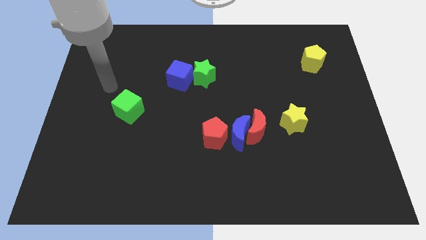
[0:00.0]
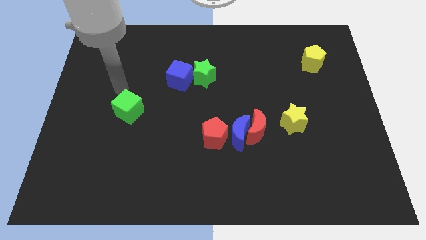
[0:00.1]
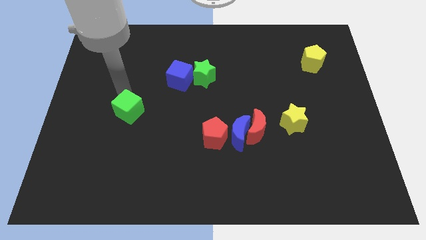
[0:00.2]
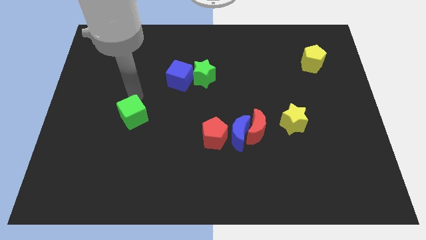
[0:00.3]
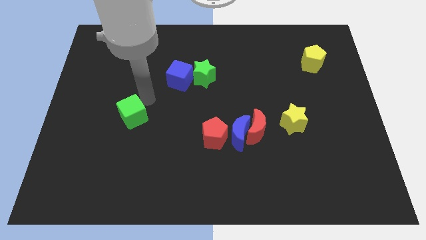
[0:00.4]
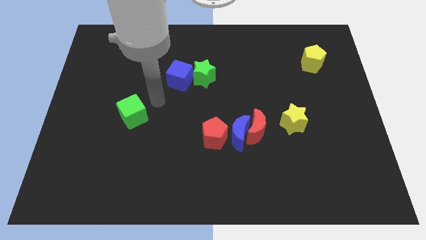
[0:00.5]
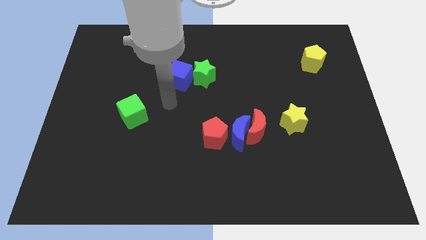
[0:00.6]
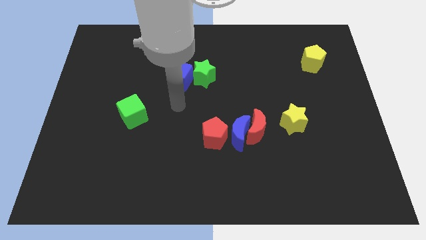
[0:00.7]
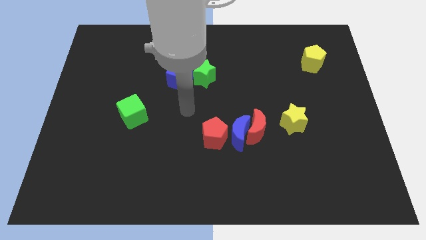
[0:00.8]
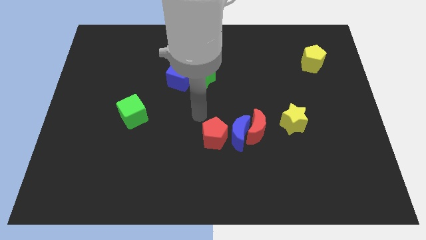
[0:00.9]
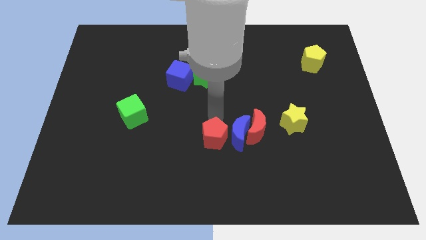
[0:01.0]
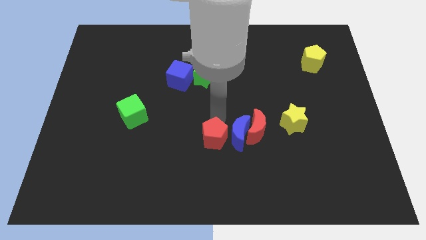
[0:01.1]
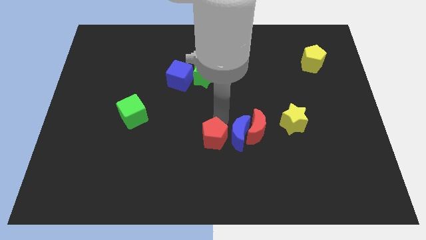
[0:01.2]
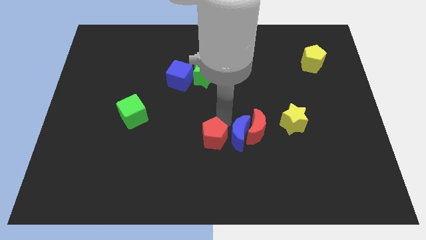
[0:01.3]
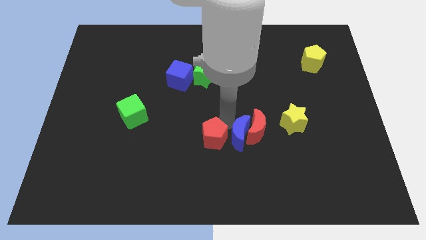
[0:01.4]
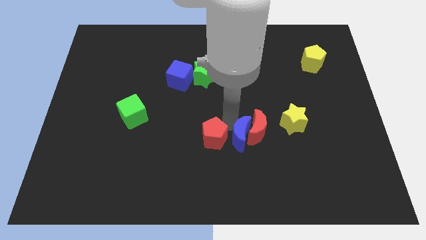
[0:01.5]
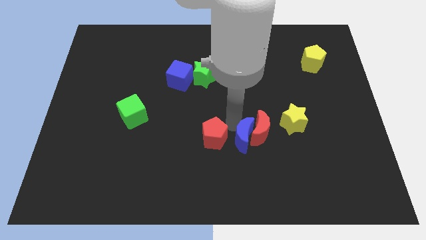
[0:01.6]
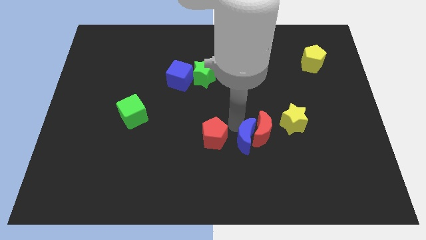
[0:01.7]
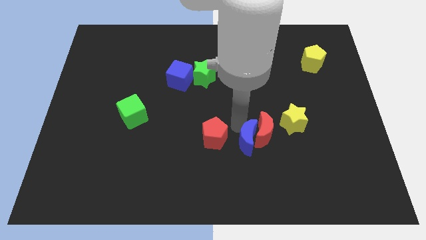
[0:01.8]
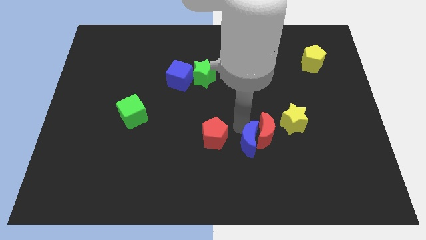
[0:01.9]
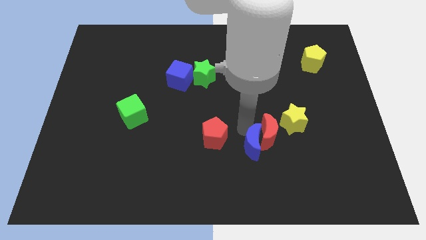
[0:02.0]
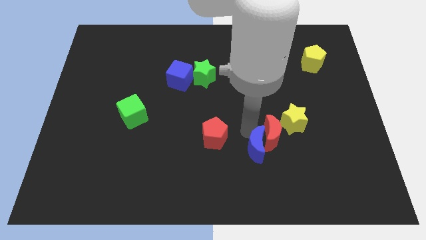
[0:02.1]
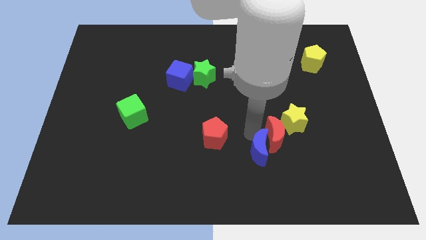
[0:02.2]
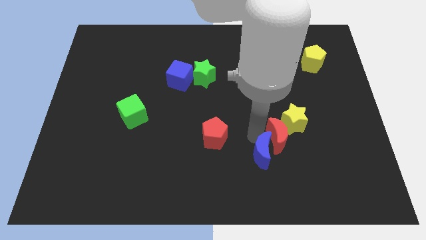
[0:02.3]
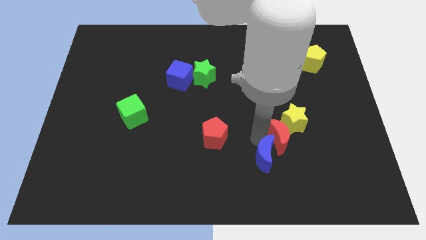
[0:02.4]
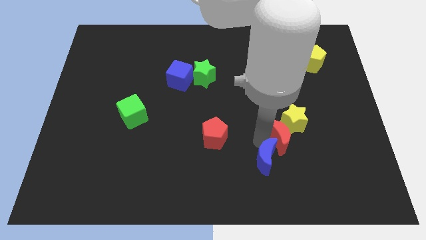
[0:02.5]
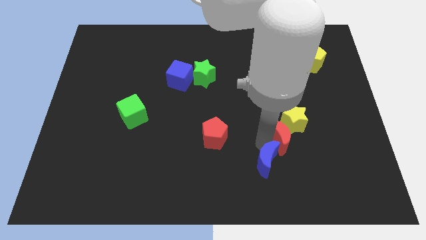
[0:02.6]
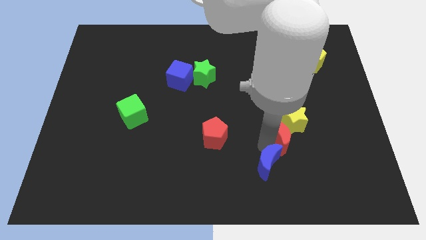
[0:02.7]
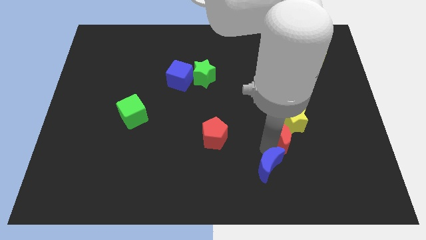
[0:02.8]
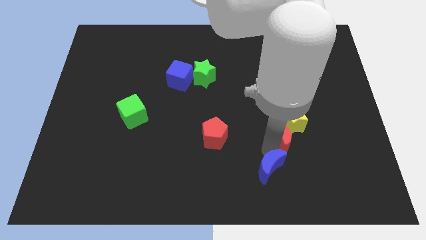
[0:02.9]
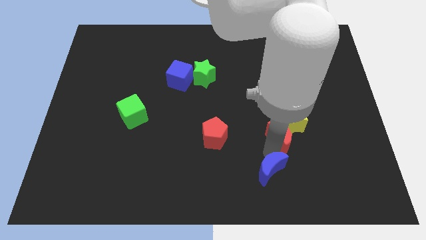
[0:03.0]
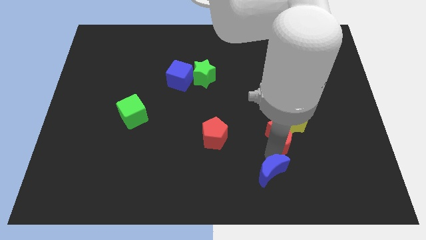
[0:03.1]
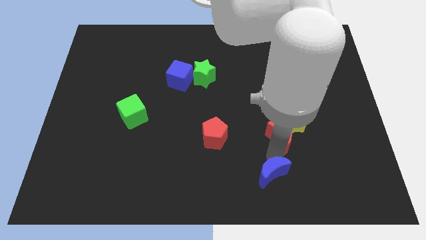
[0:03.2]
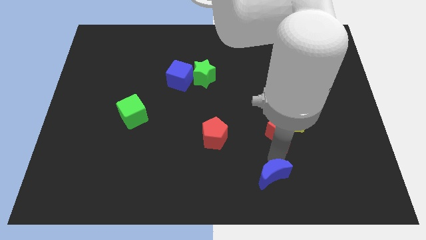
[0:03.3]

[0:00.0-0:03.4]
separate the blue moon from the red moon and red pentagon

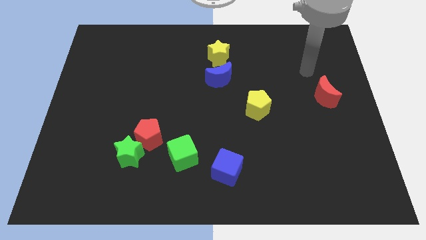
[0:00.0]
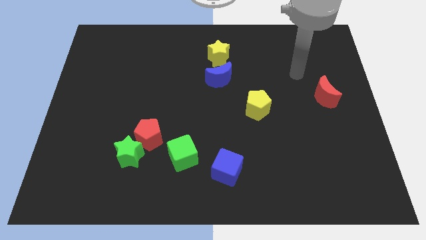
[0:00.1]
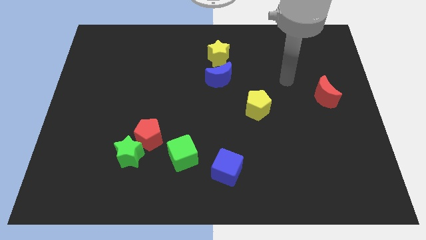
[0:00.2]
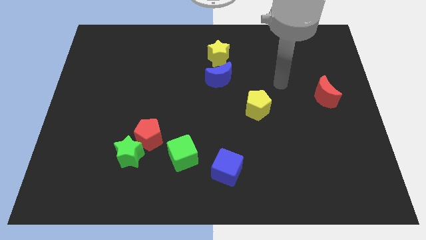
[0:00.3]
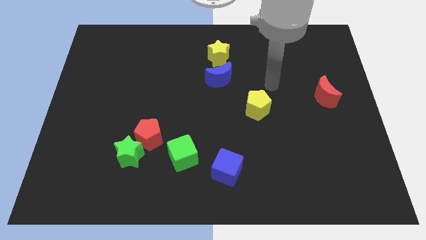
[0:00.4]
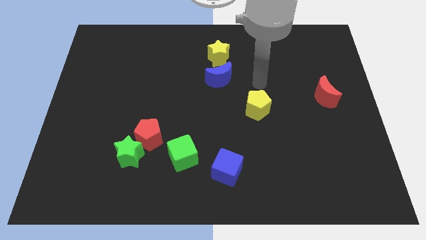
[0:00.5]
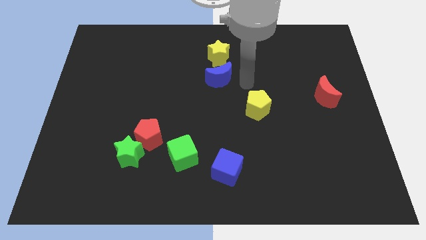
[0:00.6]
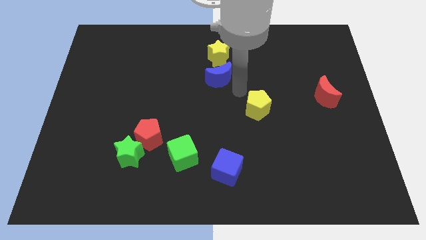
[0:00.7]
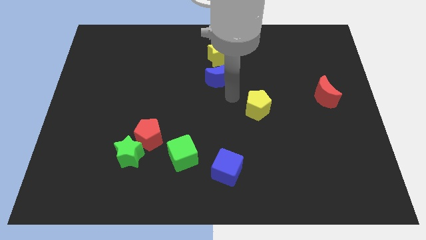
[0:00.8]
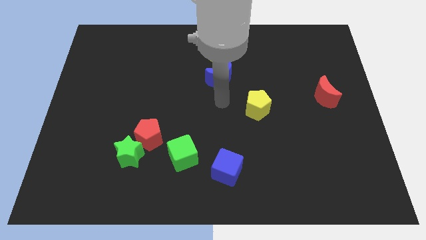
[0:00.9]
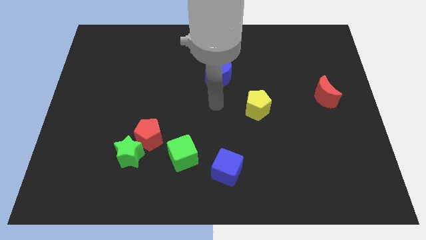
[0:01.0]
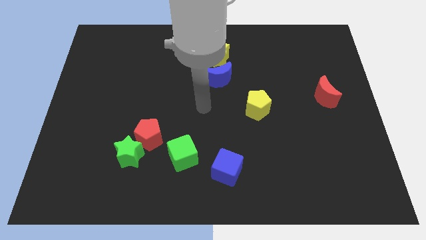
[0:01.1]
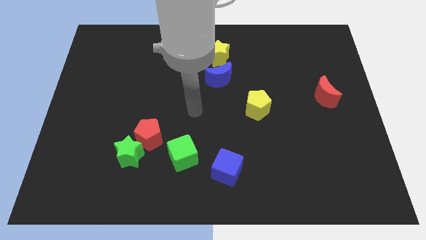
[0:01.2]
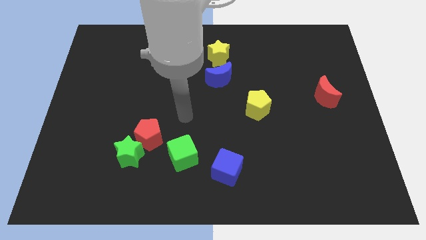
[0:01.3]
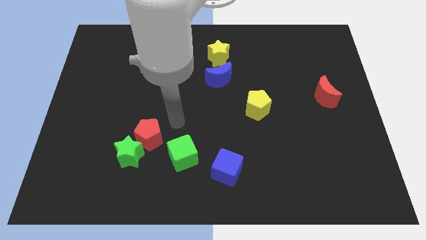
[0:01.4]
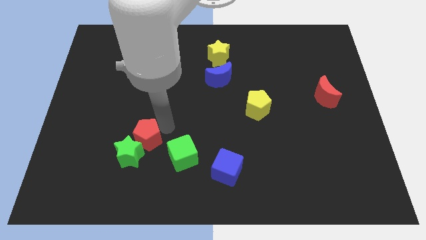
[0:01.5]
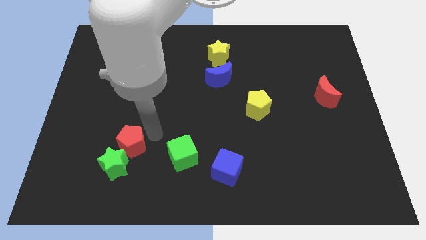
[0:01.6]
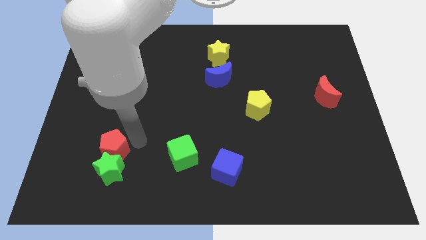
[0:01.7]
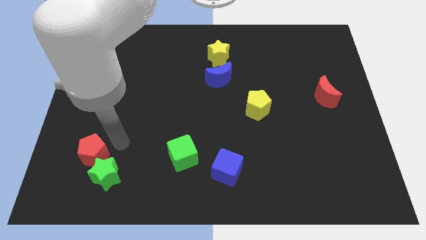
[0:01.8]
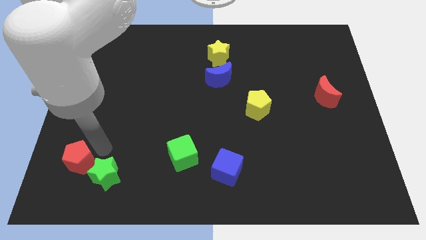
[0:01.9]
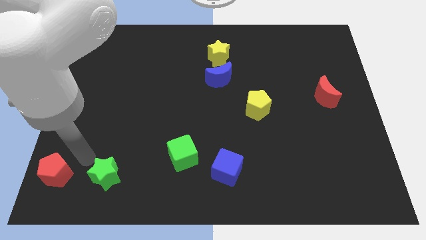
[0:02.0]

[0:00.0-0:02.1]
separate the green star from the red pentagon

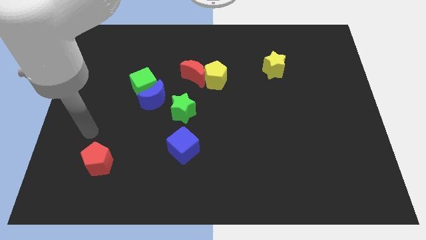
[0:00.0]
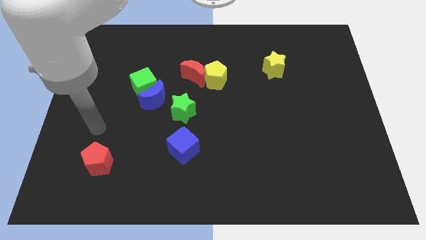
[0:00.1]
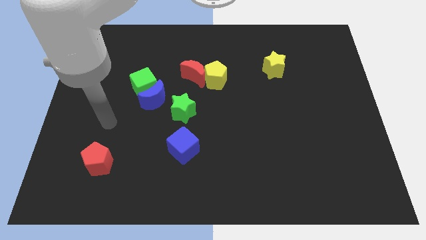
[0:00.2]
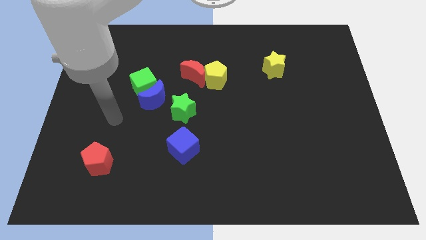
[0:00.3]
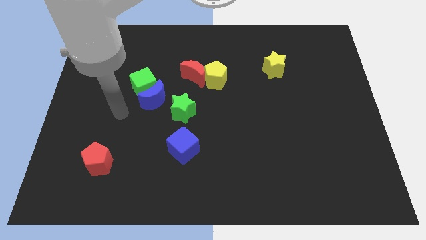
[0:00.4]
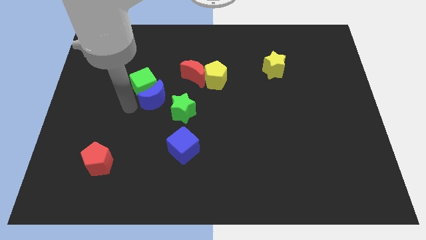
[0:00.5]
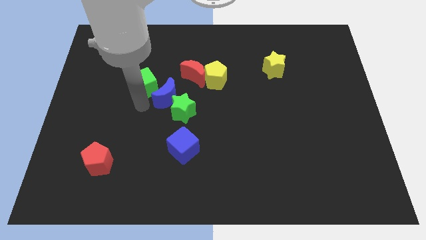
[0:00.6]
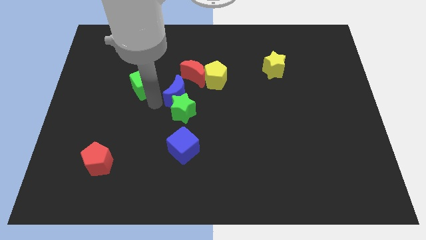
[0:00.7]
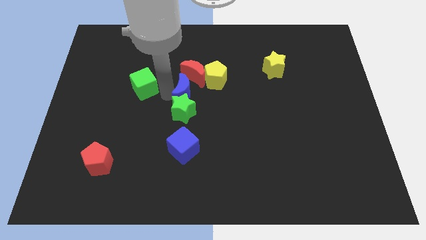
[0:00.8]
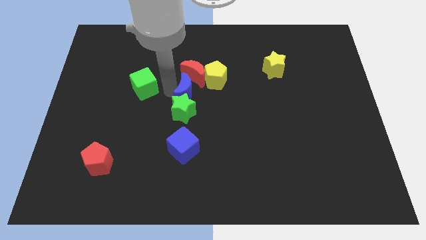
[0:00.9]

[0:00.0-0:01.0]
move the green cube away from the blue moon

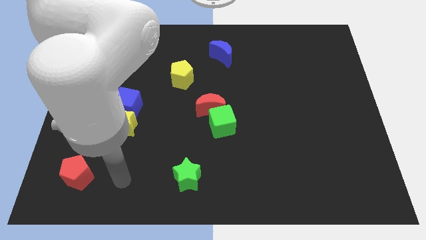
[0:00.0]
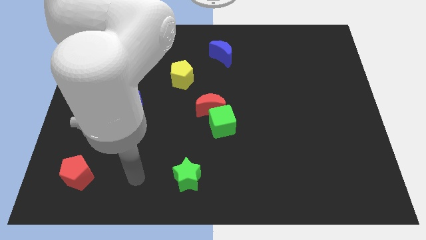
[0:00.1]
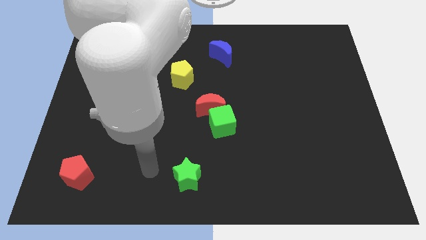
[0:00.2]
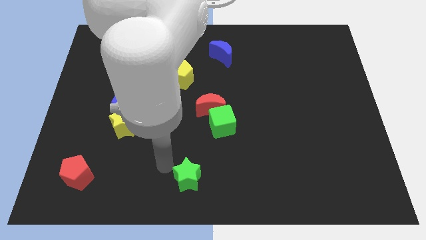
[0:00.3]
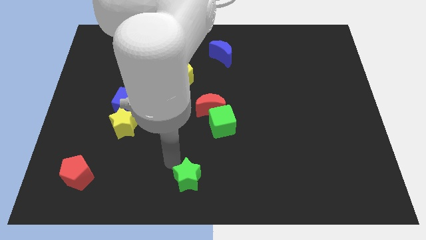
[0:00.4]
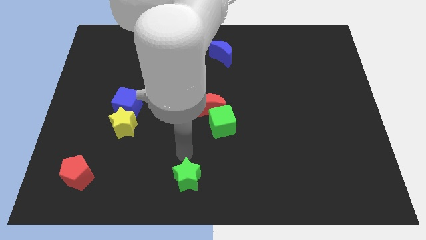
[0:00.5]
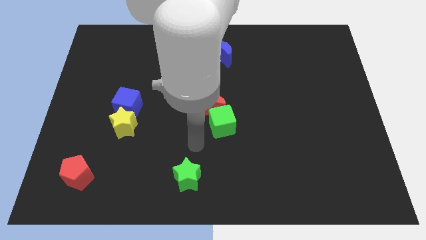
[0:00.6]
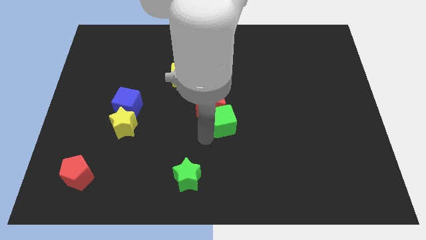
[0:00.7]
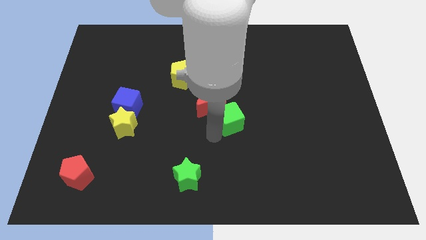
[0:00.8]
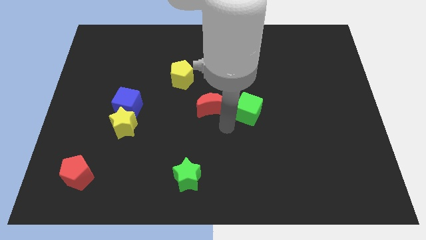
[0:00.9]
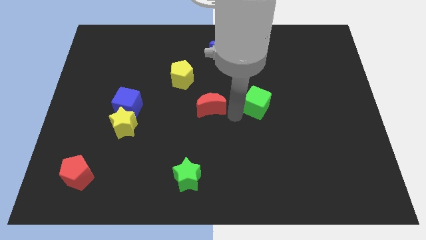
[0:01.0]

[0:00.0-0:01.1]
pull the red moon apart from the green cube

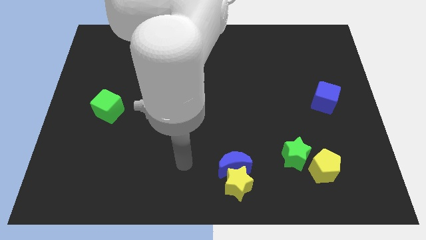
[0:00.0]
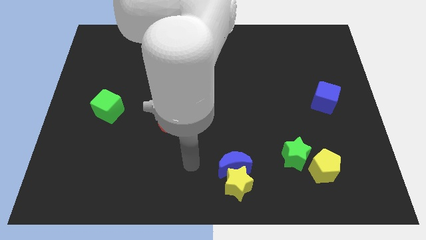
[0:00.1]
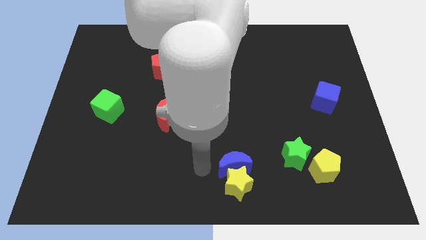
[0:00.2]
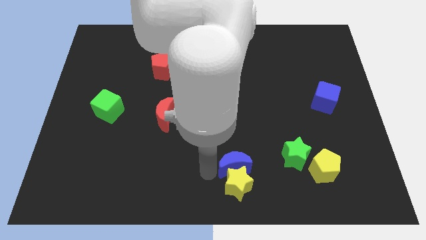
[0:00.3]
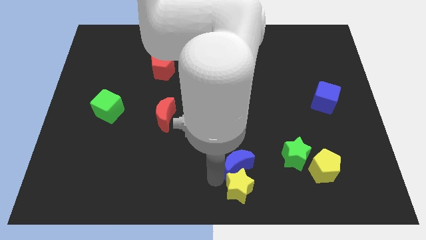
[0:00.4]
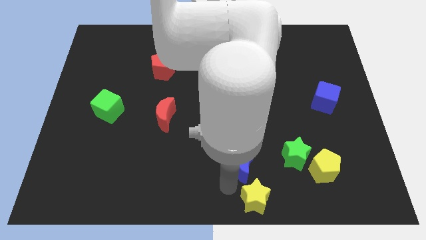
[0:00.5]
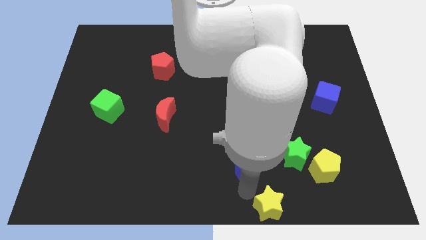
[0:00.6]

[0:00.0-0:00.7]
pull the blue moon apart from the yellow star

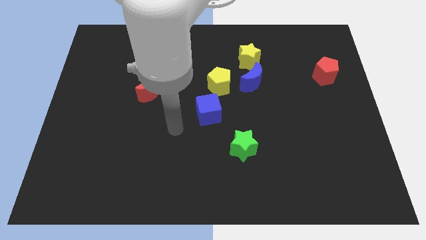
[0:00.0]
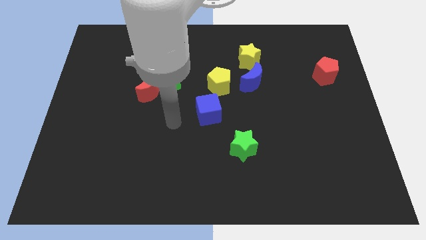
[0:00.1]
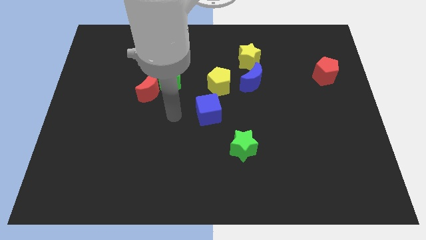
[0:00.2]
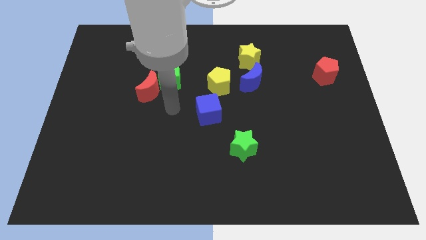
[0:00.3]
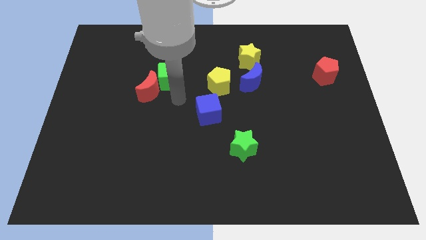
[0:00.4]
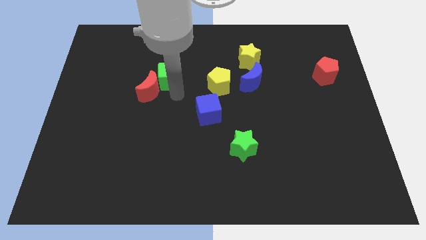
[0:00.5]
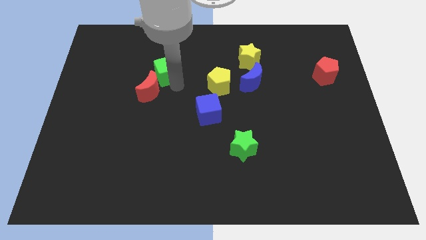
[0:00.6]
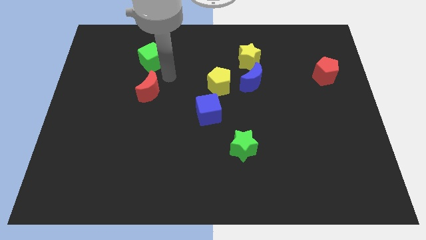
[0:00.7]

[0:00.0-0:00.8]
move the red moon away from the green cube

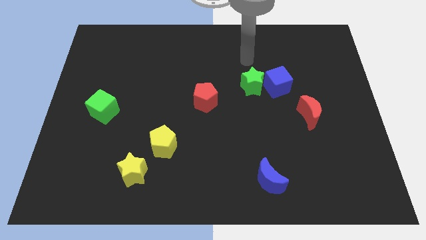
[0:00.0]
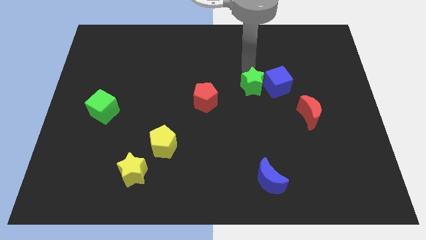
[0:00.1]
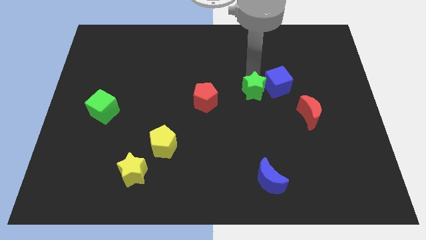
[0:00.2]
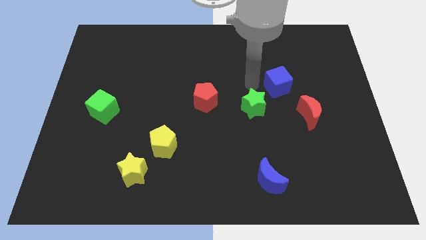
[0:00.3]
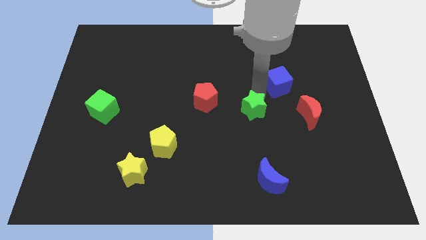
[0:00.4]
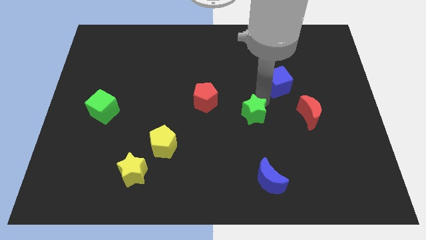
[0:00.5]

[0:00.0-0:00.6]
pull the blue cube apart from the green star
